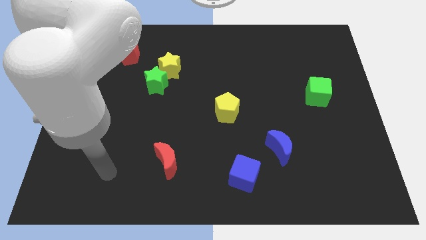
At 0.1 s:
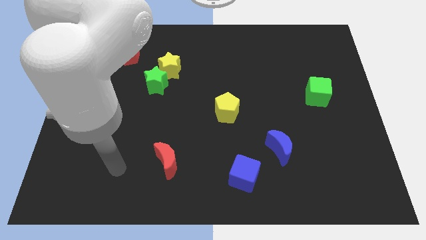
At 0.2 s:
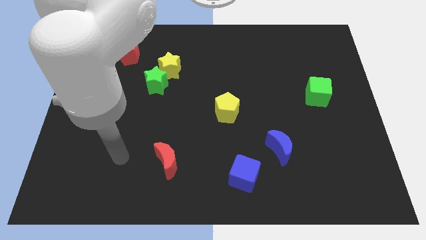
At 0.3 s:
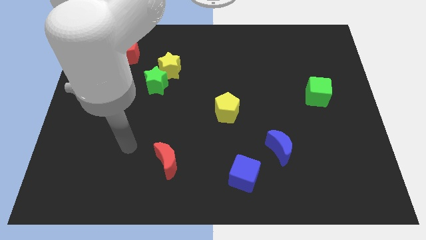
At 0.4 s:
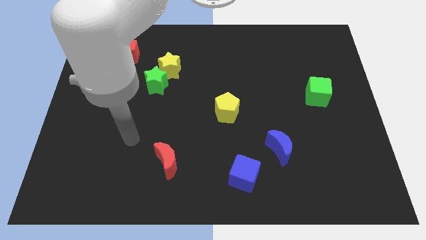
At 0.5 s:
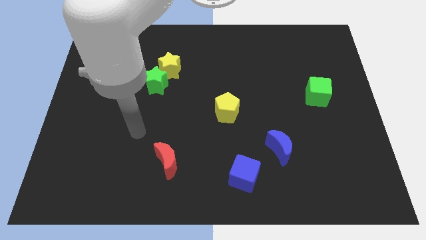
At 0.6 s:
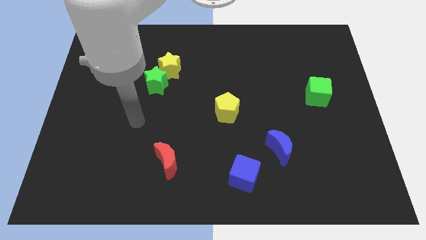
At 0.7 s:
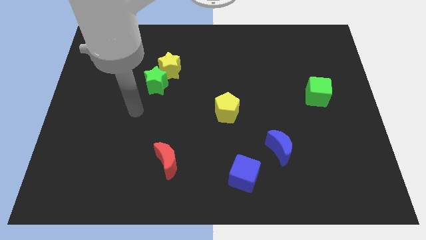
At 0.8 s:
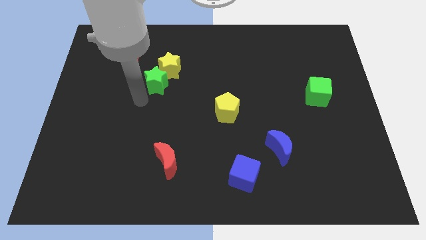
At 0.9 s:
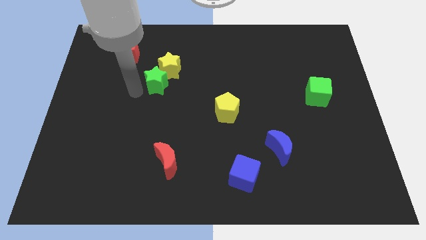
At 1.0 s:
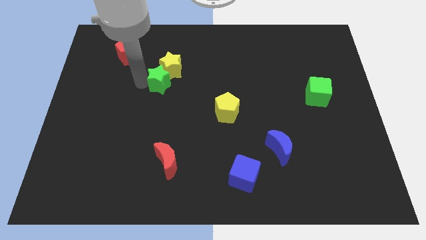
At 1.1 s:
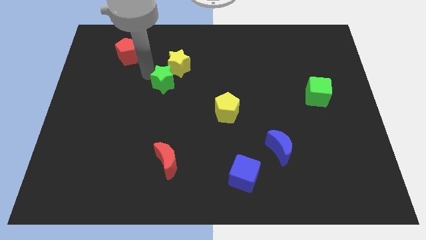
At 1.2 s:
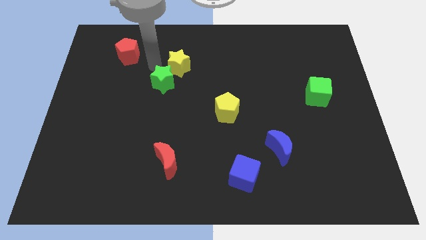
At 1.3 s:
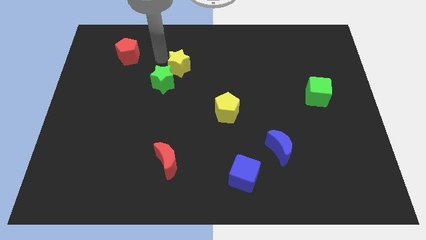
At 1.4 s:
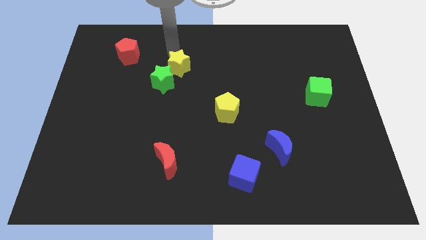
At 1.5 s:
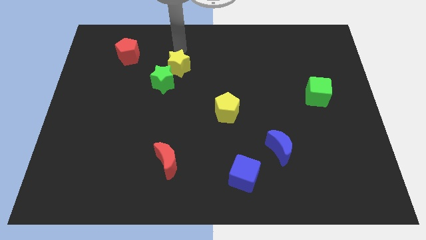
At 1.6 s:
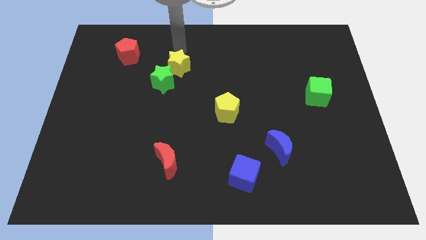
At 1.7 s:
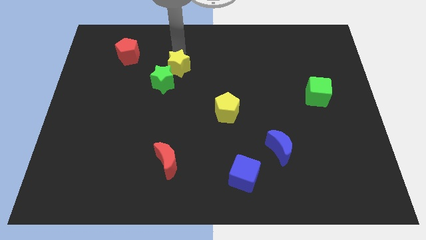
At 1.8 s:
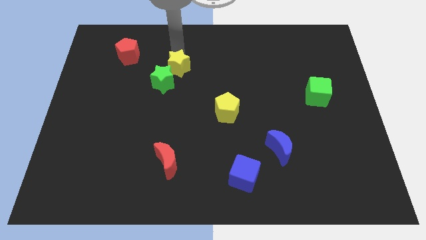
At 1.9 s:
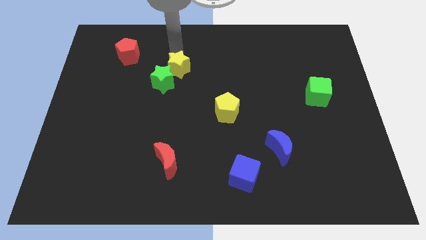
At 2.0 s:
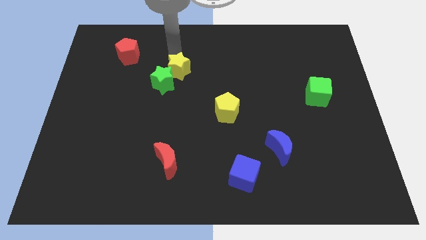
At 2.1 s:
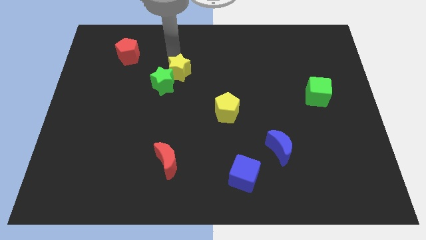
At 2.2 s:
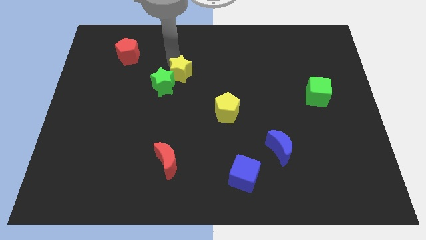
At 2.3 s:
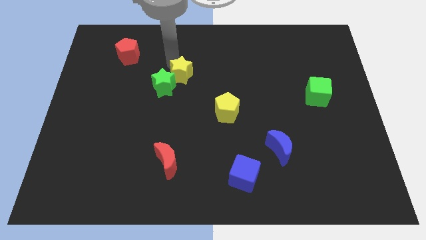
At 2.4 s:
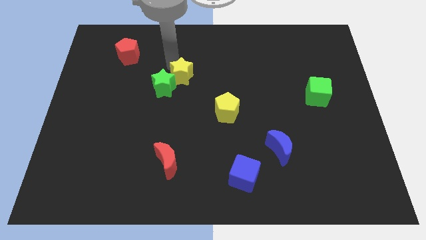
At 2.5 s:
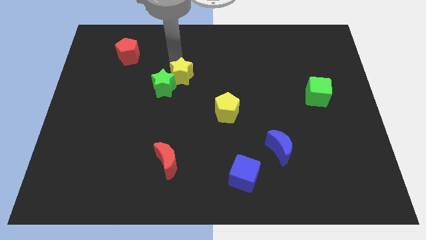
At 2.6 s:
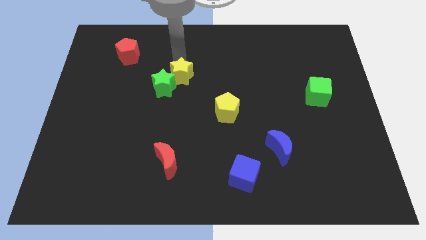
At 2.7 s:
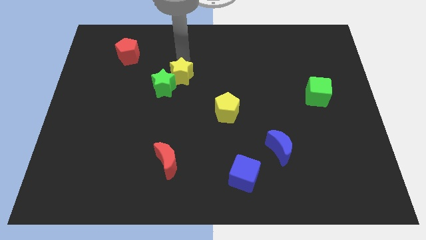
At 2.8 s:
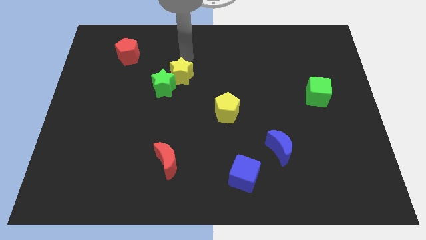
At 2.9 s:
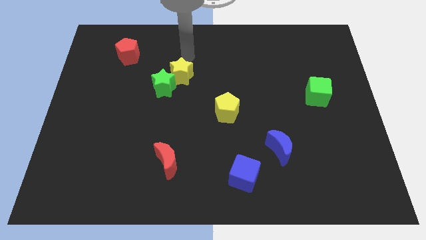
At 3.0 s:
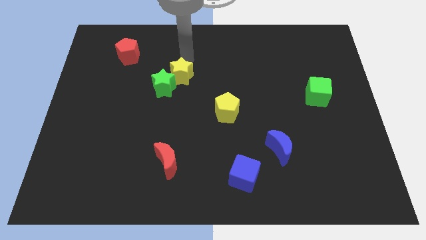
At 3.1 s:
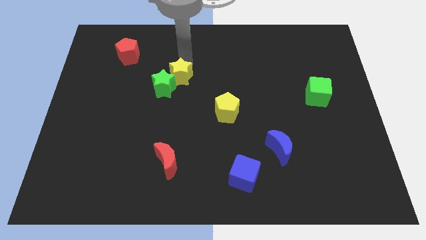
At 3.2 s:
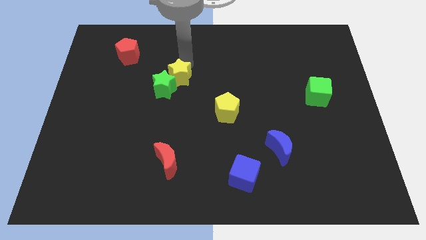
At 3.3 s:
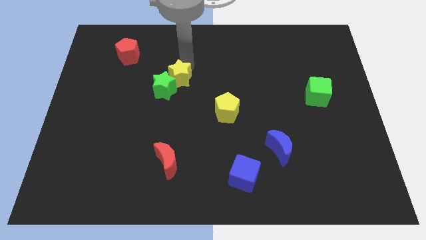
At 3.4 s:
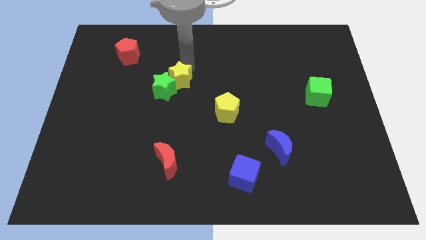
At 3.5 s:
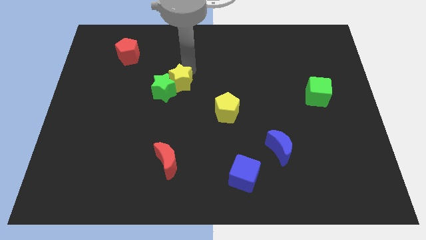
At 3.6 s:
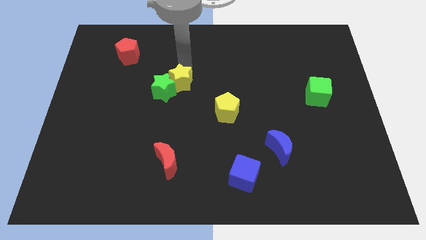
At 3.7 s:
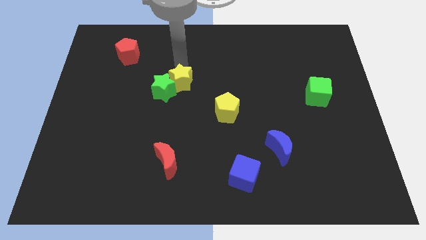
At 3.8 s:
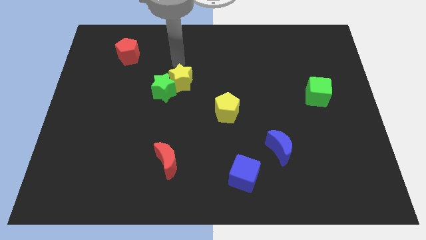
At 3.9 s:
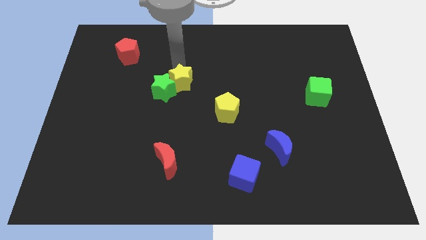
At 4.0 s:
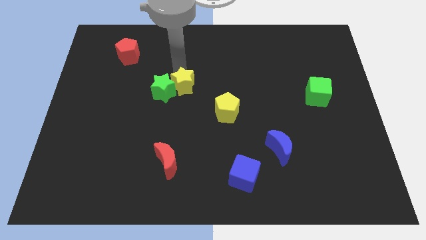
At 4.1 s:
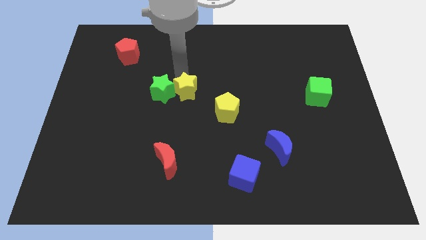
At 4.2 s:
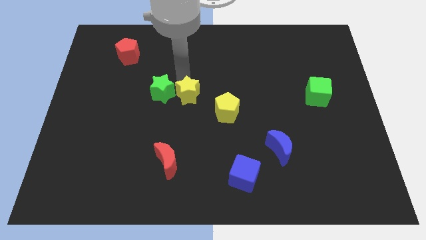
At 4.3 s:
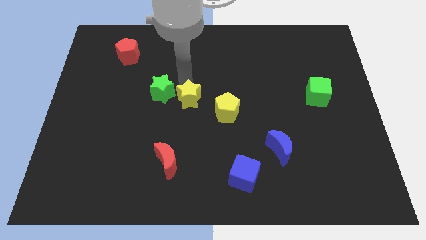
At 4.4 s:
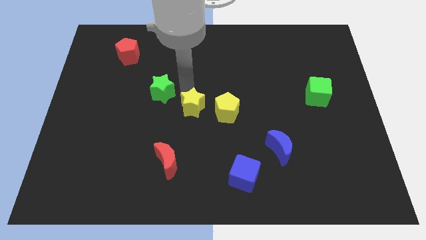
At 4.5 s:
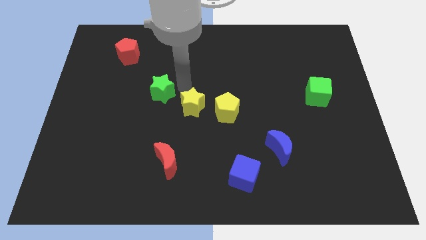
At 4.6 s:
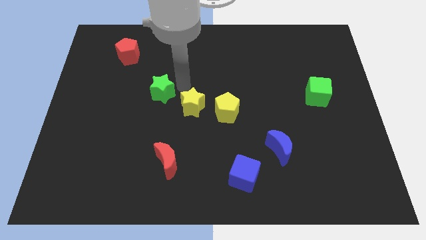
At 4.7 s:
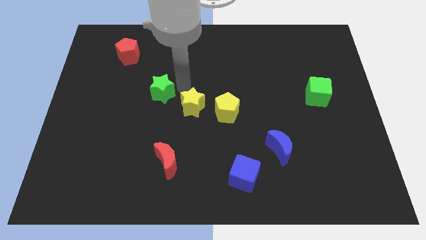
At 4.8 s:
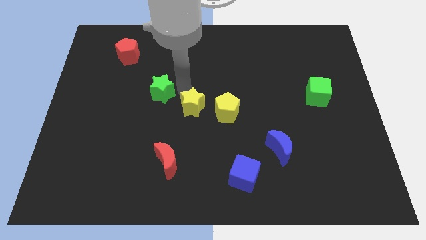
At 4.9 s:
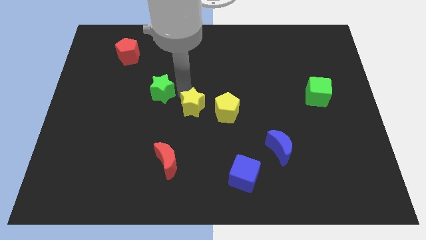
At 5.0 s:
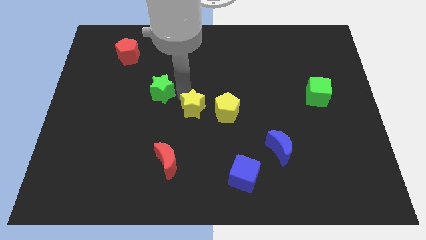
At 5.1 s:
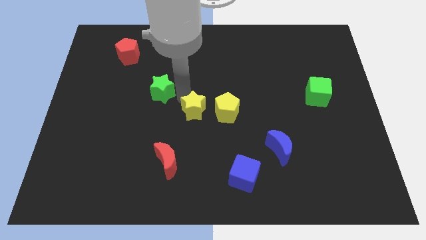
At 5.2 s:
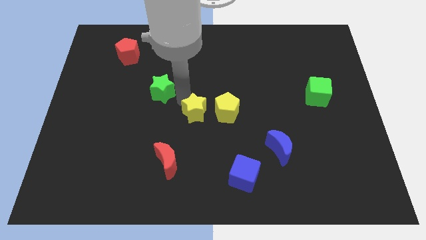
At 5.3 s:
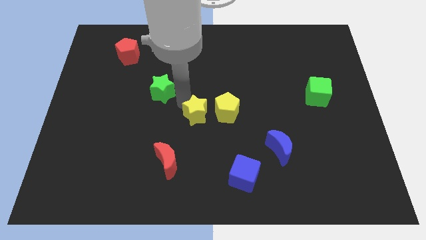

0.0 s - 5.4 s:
put the yellow star to the bottom left of the yellow pentagon

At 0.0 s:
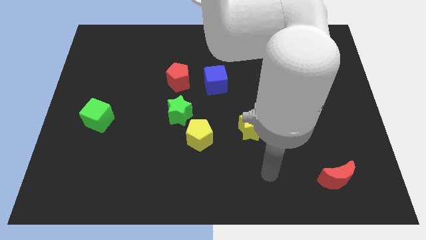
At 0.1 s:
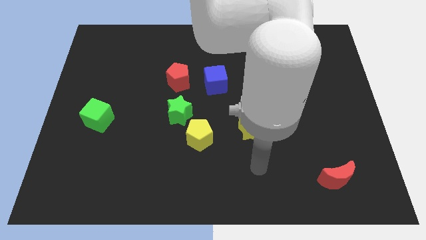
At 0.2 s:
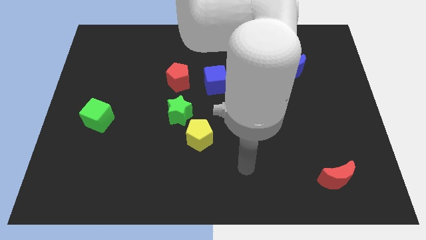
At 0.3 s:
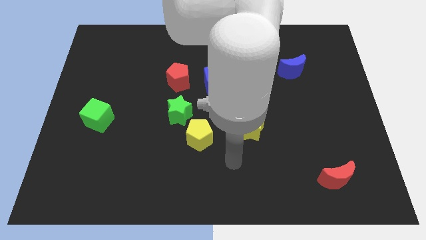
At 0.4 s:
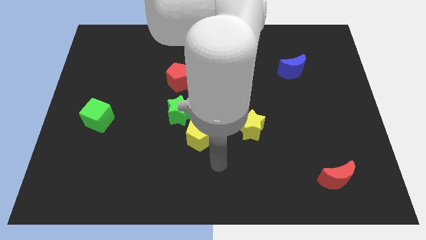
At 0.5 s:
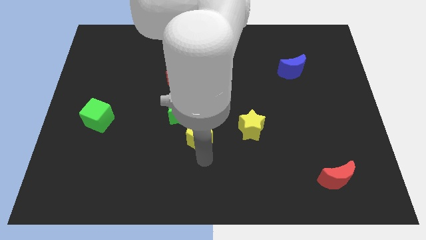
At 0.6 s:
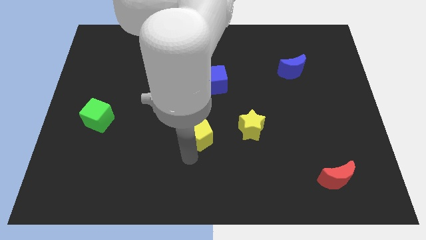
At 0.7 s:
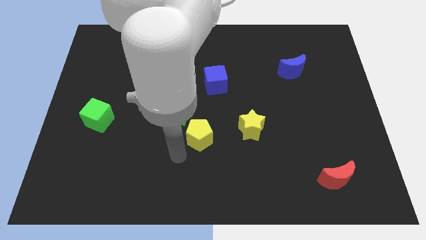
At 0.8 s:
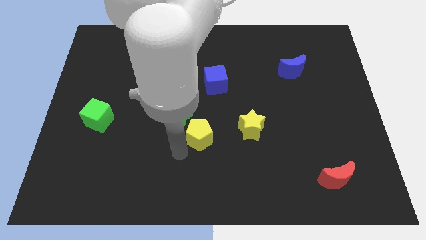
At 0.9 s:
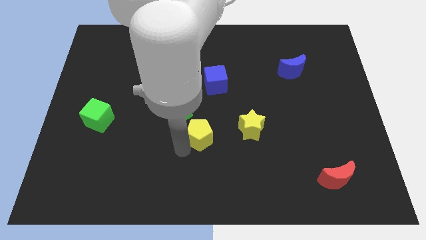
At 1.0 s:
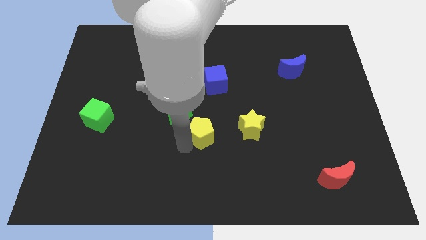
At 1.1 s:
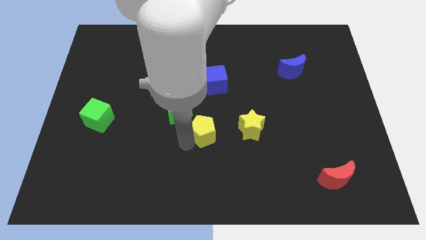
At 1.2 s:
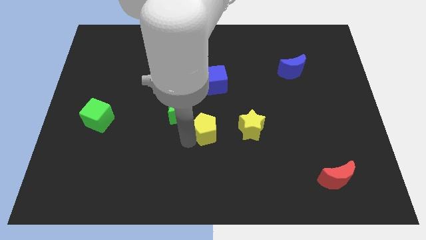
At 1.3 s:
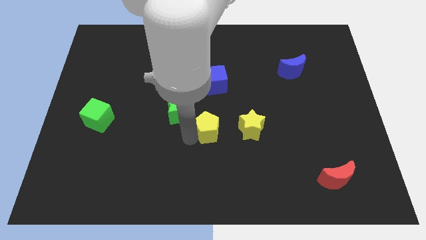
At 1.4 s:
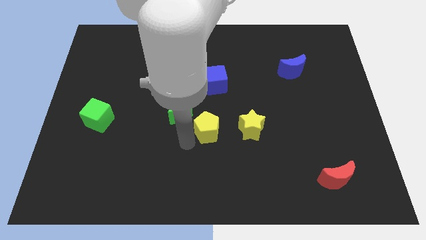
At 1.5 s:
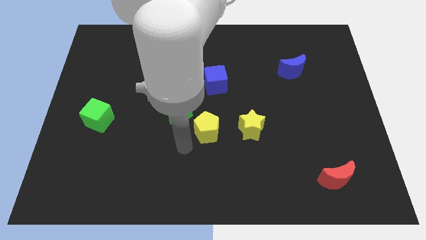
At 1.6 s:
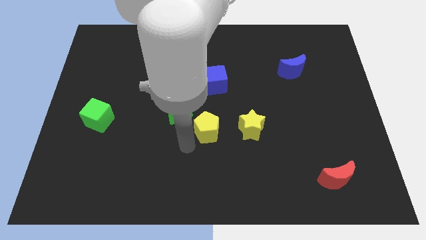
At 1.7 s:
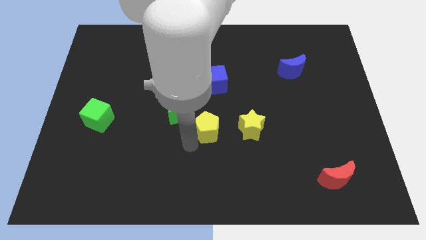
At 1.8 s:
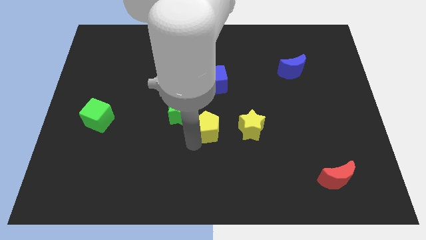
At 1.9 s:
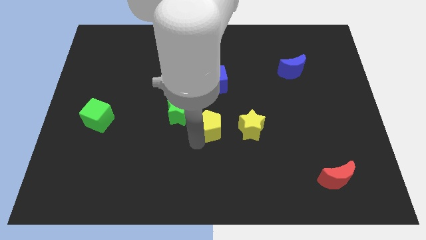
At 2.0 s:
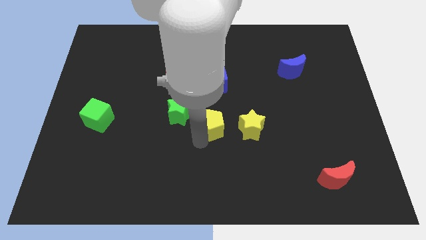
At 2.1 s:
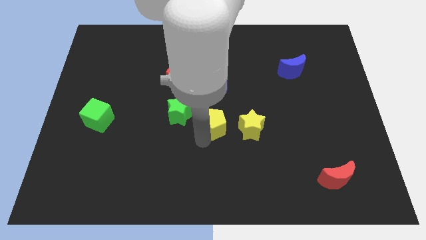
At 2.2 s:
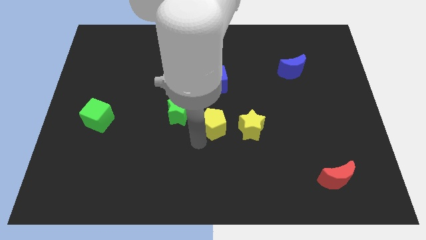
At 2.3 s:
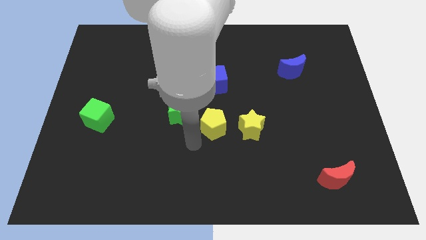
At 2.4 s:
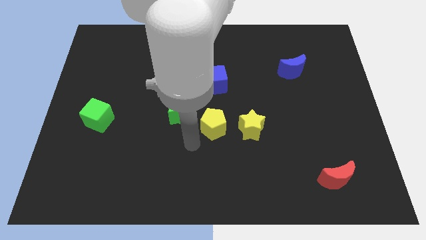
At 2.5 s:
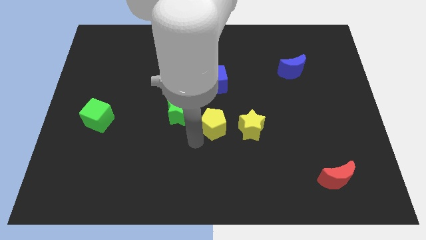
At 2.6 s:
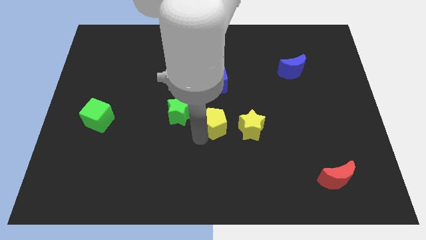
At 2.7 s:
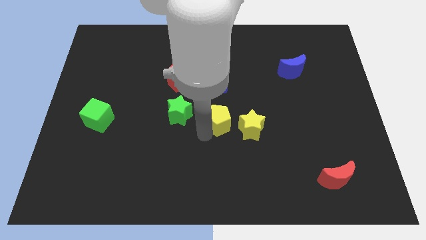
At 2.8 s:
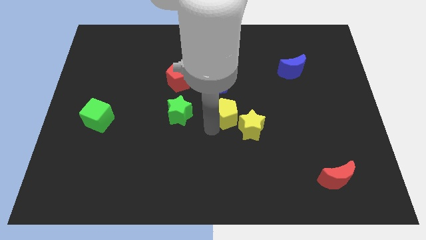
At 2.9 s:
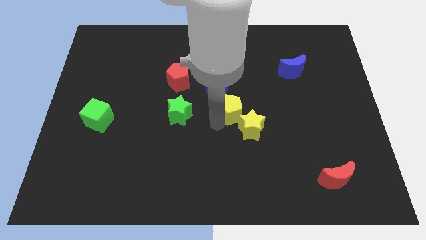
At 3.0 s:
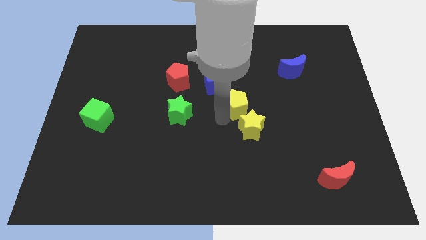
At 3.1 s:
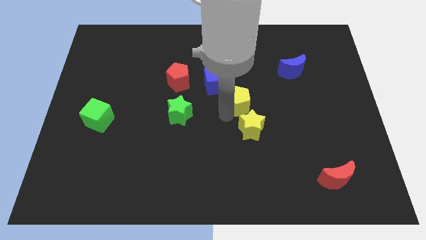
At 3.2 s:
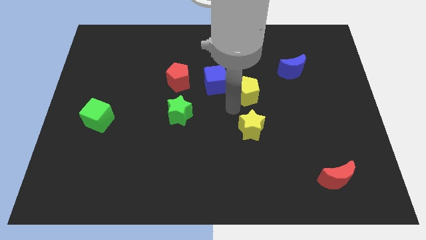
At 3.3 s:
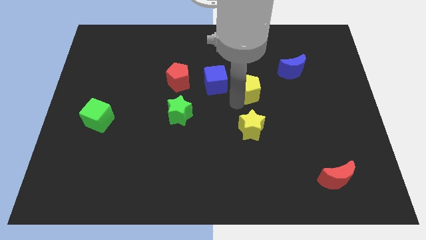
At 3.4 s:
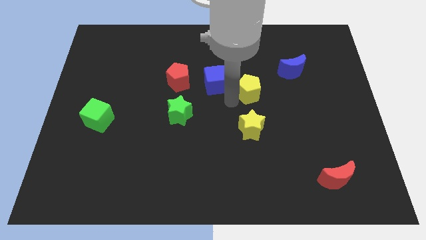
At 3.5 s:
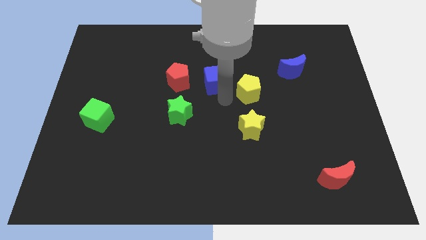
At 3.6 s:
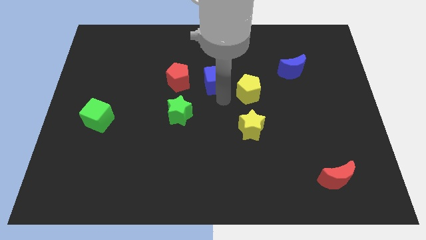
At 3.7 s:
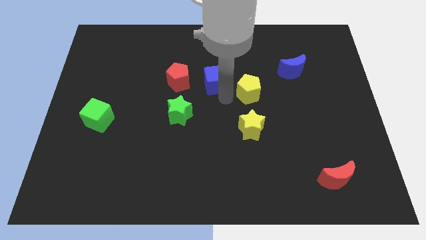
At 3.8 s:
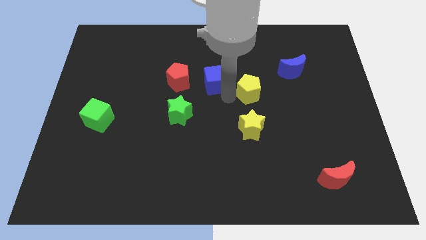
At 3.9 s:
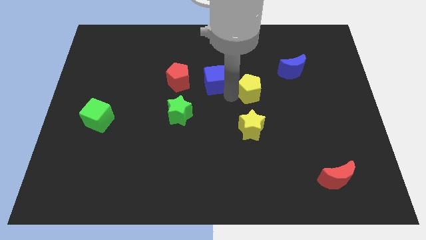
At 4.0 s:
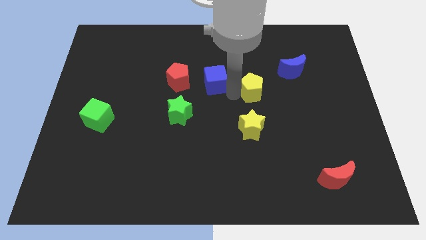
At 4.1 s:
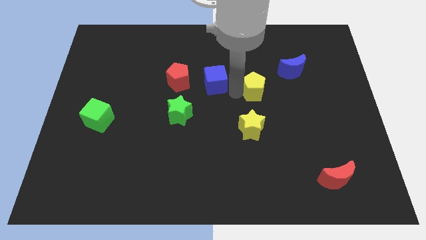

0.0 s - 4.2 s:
move the yellow pentagon to the bottom left of the blue moon
